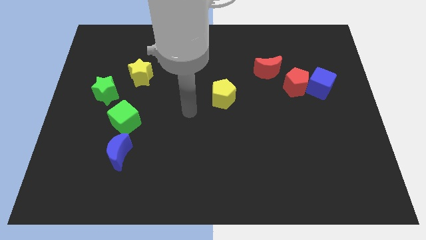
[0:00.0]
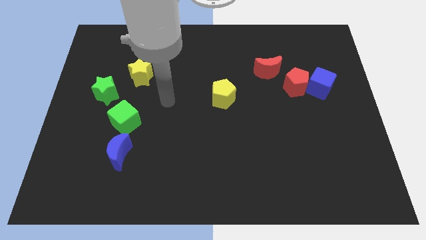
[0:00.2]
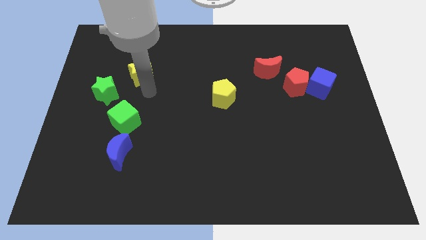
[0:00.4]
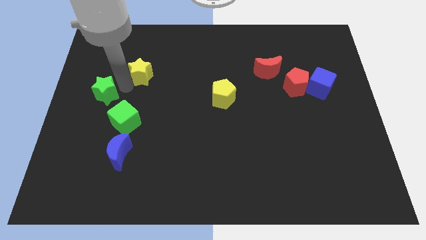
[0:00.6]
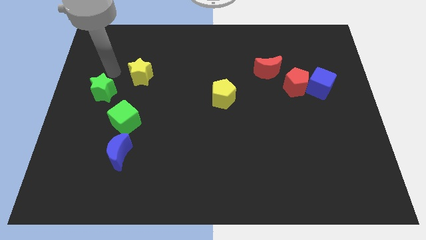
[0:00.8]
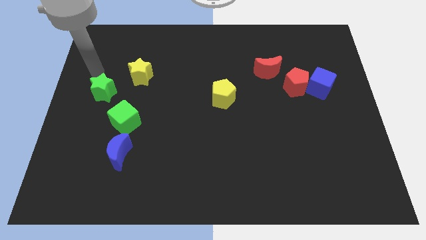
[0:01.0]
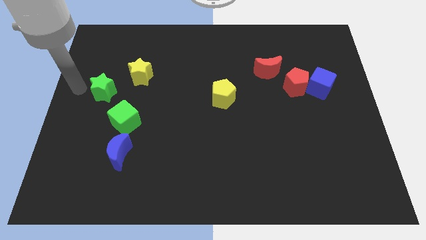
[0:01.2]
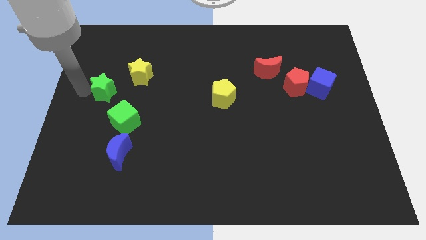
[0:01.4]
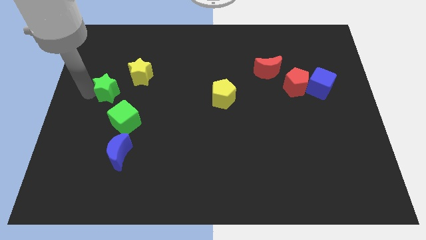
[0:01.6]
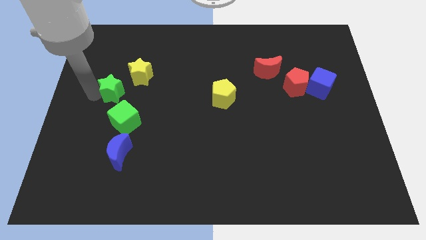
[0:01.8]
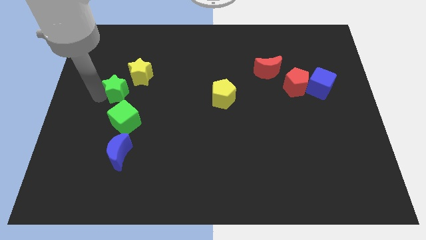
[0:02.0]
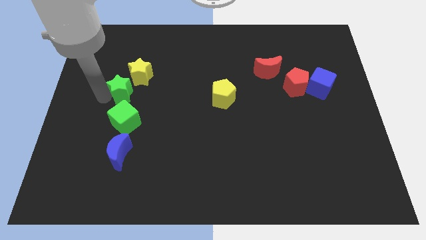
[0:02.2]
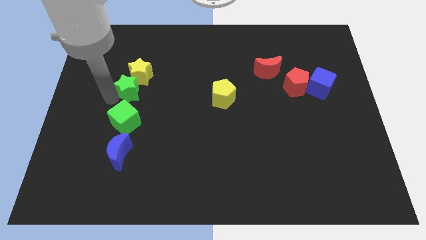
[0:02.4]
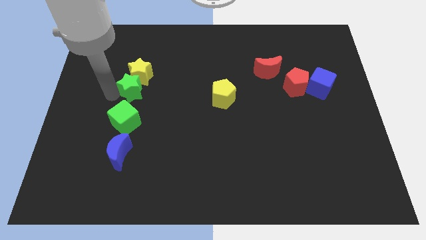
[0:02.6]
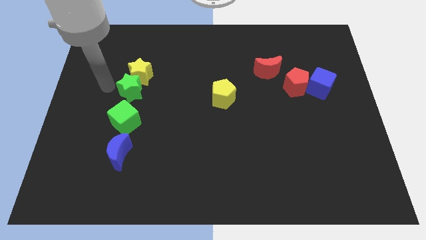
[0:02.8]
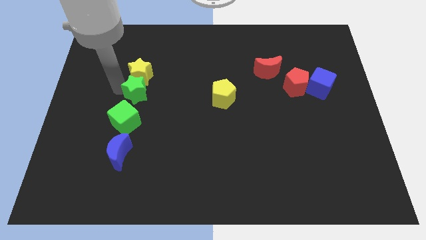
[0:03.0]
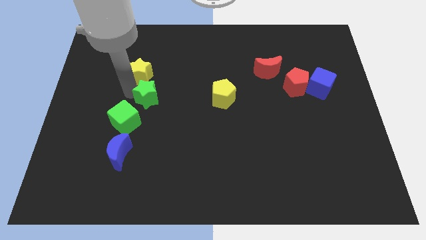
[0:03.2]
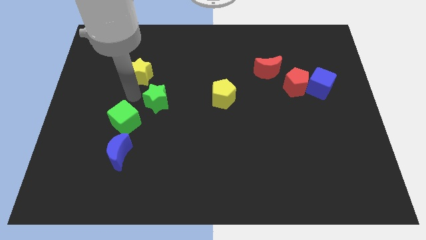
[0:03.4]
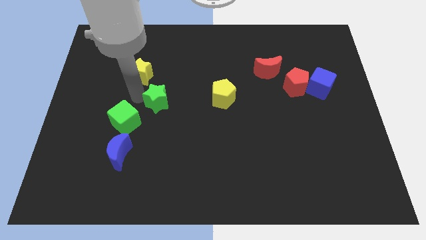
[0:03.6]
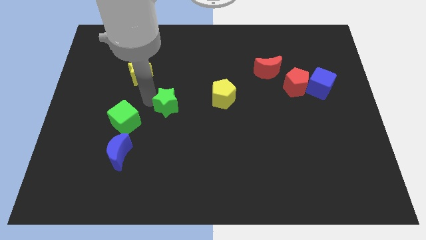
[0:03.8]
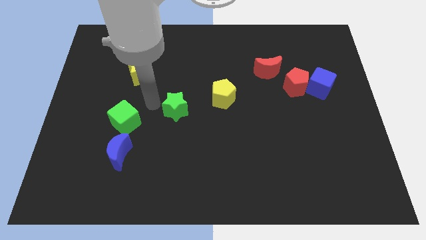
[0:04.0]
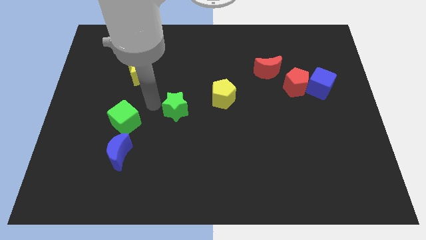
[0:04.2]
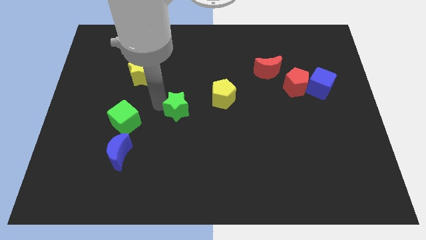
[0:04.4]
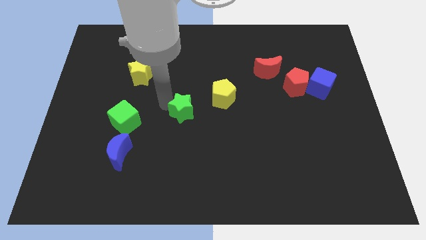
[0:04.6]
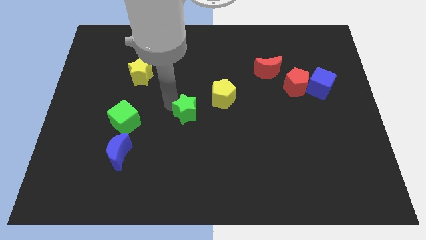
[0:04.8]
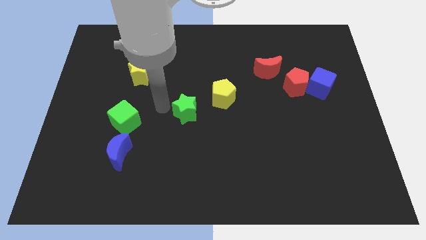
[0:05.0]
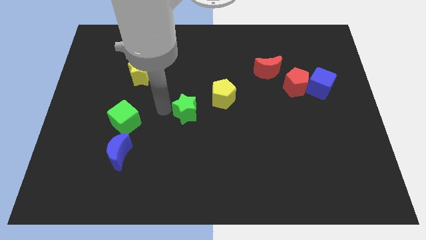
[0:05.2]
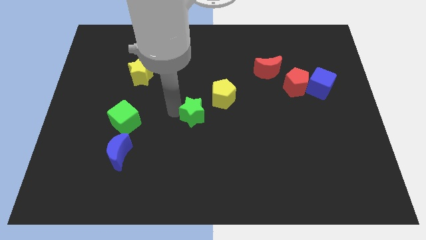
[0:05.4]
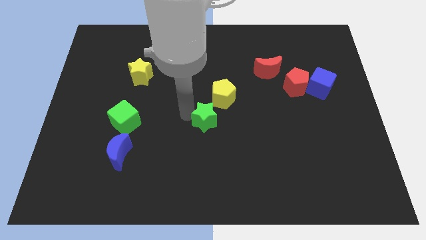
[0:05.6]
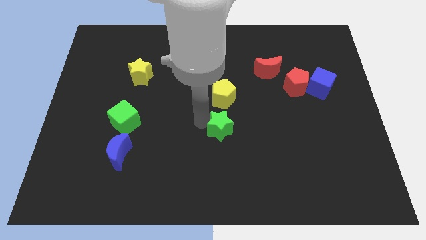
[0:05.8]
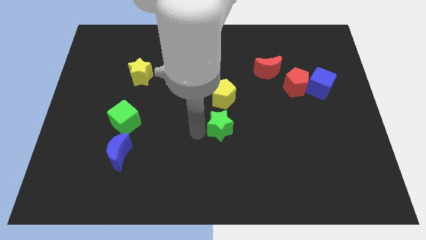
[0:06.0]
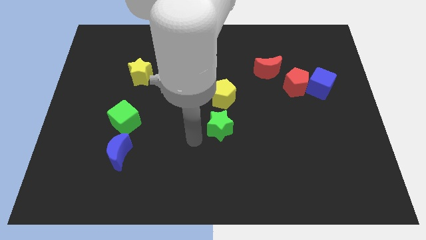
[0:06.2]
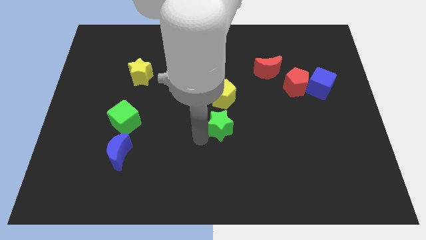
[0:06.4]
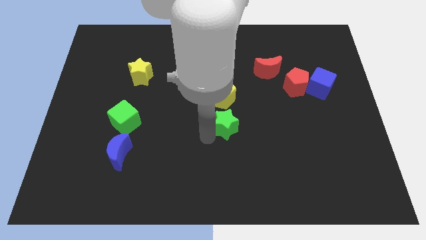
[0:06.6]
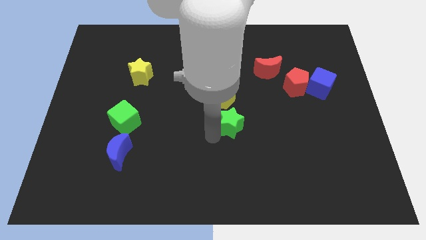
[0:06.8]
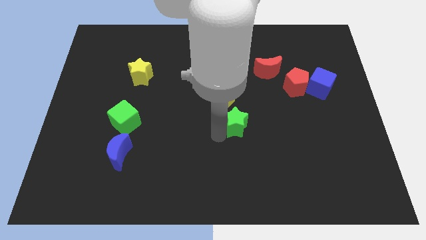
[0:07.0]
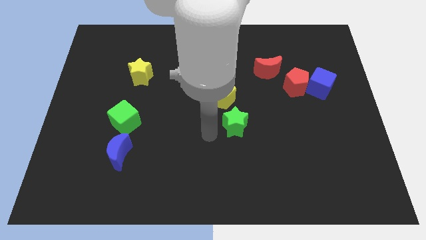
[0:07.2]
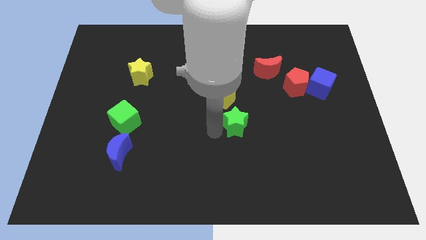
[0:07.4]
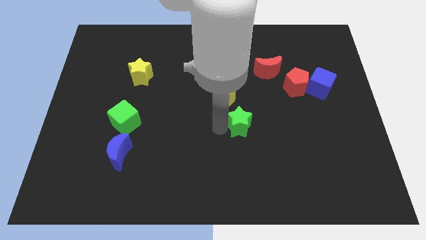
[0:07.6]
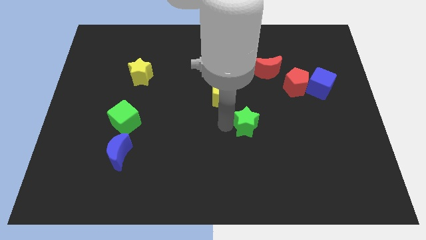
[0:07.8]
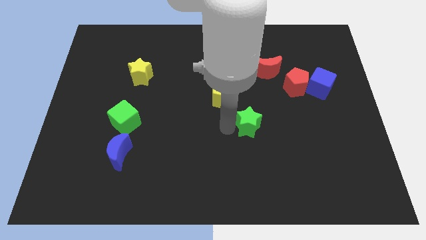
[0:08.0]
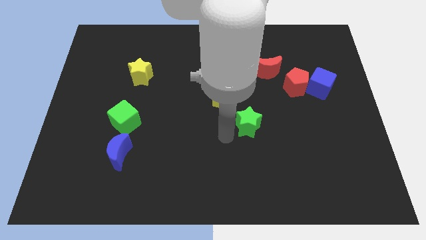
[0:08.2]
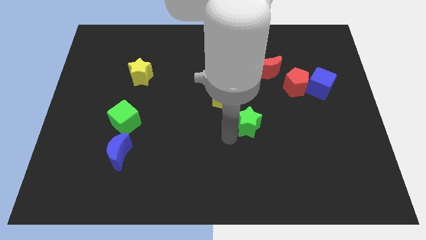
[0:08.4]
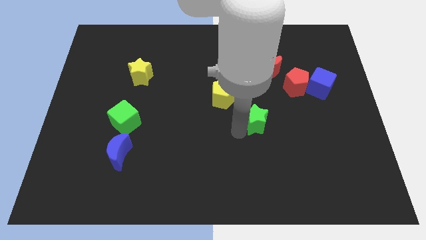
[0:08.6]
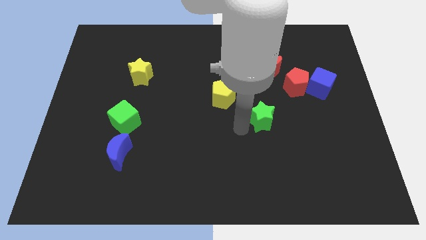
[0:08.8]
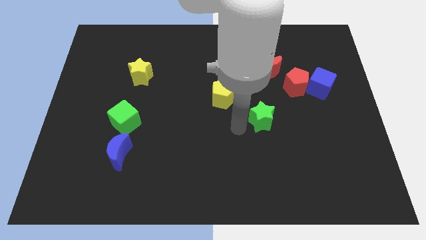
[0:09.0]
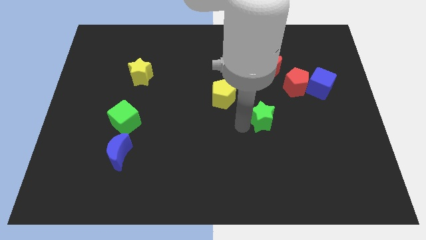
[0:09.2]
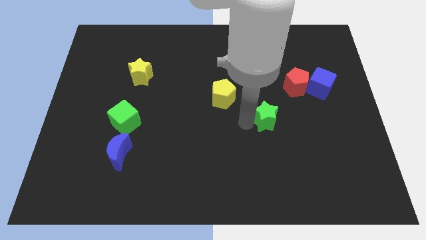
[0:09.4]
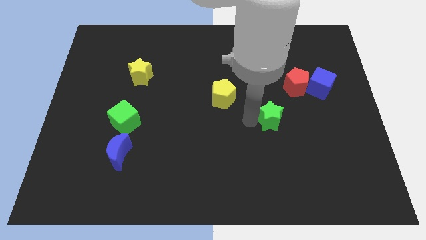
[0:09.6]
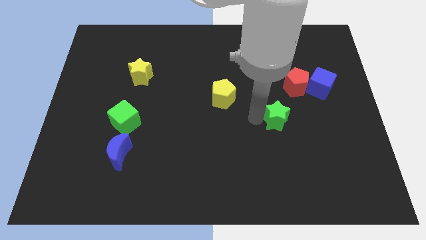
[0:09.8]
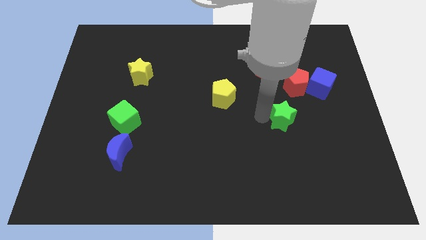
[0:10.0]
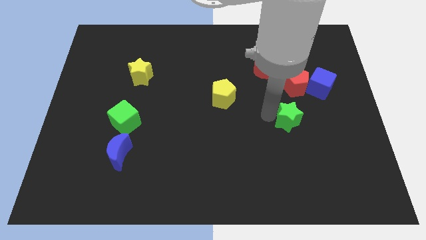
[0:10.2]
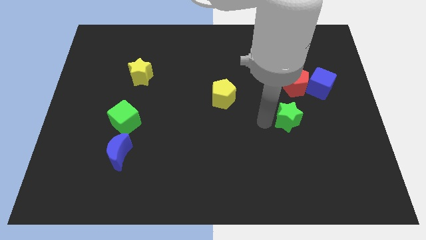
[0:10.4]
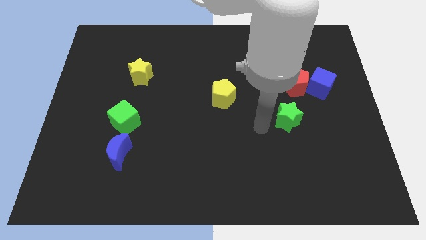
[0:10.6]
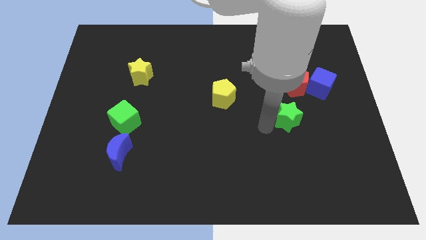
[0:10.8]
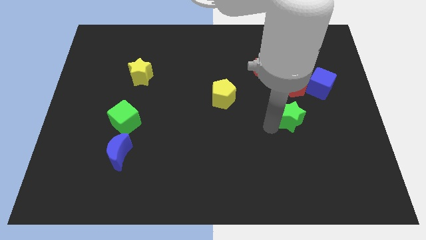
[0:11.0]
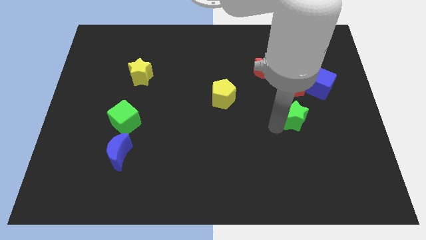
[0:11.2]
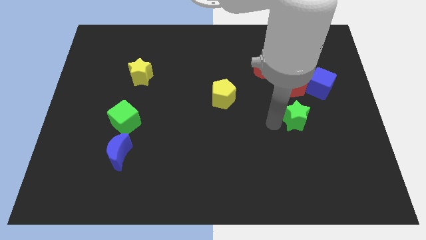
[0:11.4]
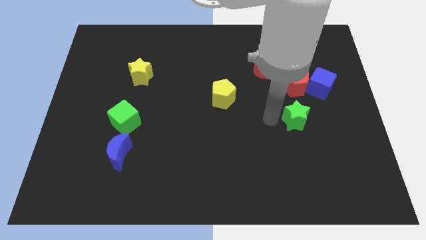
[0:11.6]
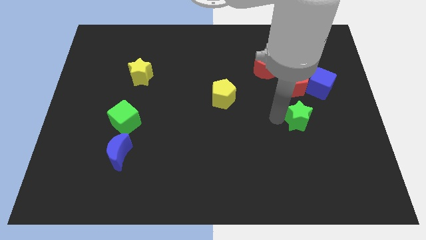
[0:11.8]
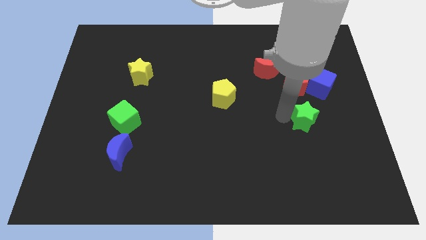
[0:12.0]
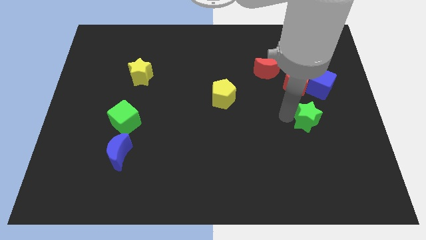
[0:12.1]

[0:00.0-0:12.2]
move the green star to the bottom side of the blue cube
